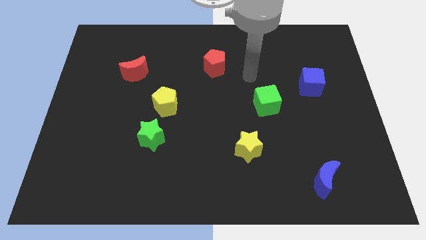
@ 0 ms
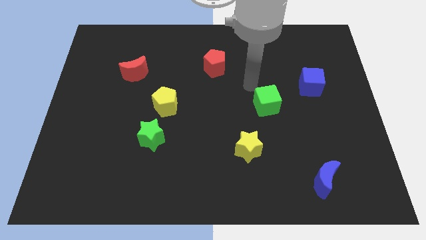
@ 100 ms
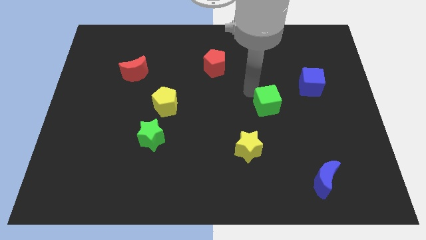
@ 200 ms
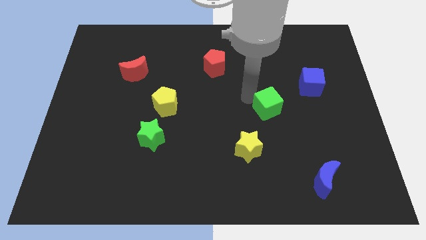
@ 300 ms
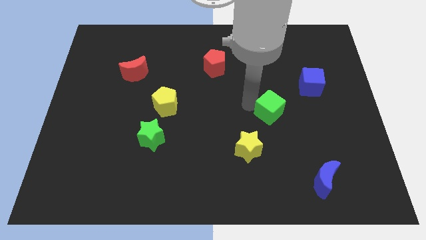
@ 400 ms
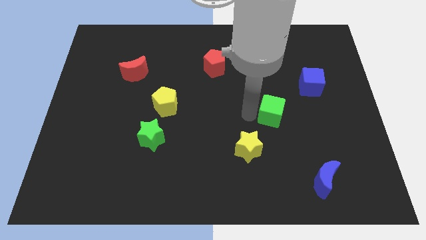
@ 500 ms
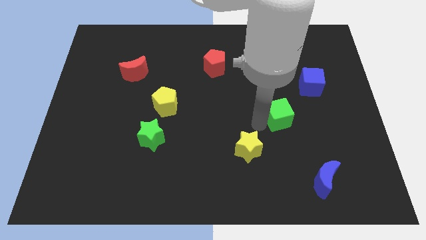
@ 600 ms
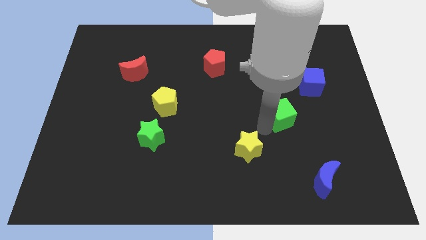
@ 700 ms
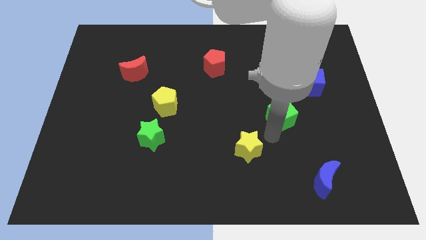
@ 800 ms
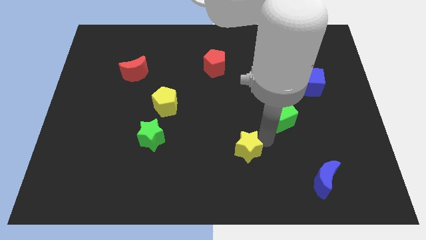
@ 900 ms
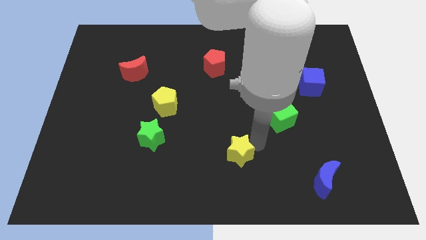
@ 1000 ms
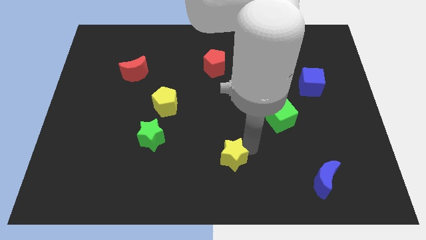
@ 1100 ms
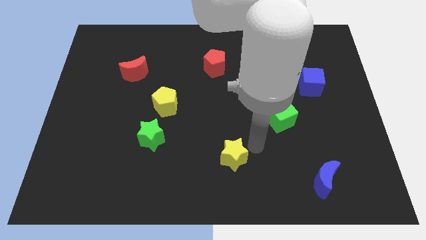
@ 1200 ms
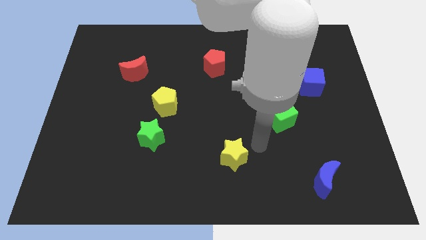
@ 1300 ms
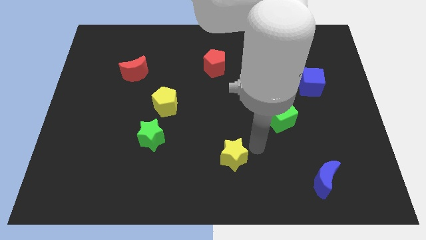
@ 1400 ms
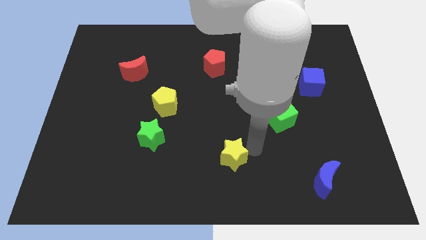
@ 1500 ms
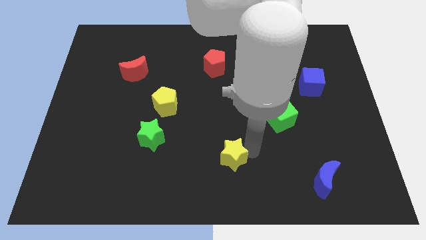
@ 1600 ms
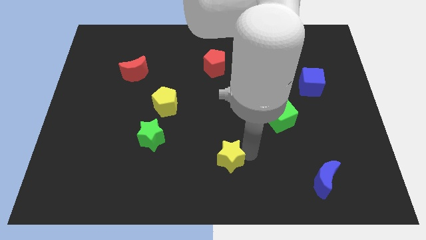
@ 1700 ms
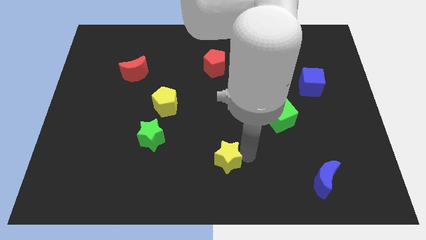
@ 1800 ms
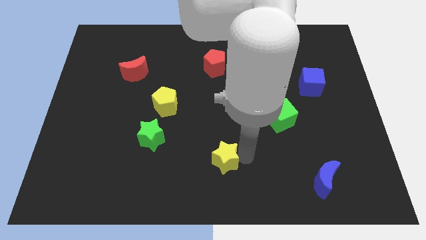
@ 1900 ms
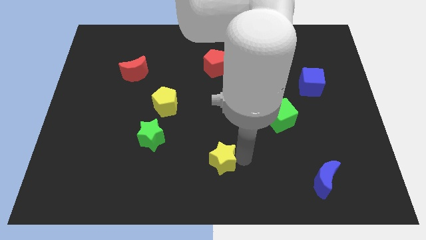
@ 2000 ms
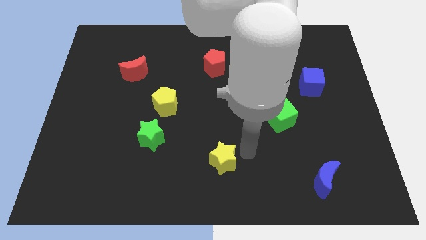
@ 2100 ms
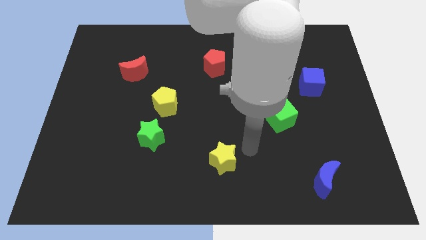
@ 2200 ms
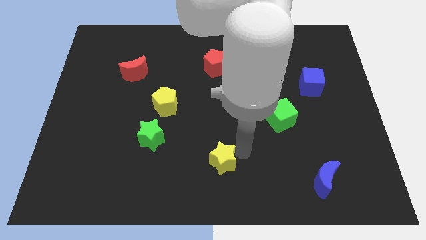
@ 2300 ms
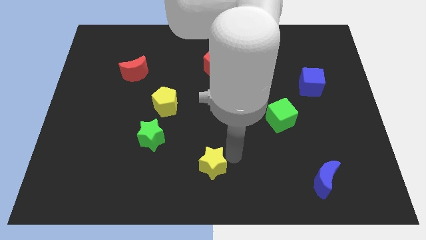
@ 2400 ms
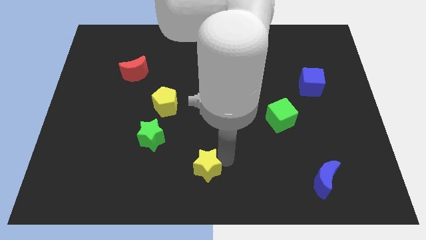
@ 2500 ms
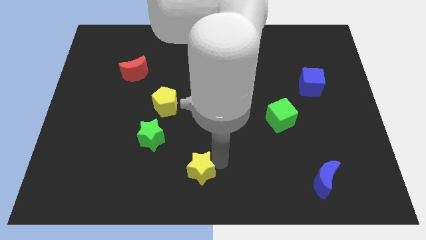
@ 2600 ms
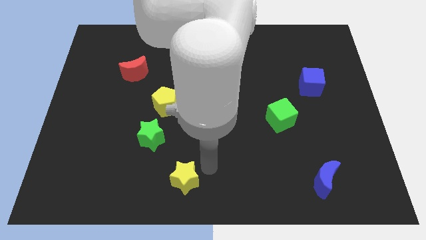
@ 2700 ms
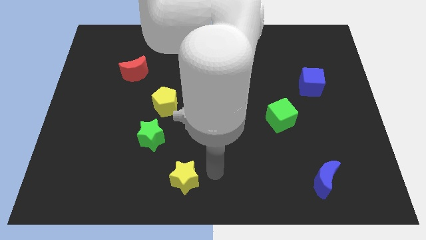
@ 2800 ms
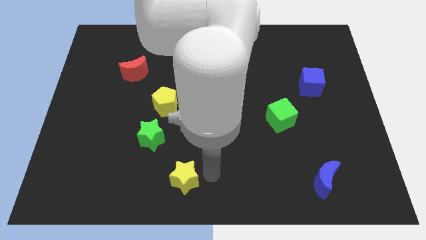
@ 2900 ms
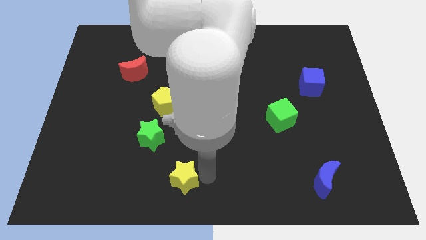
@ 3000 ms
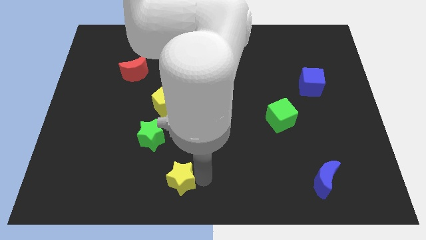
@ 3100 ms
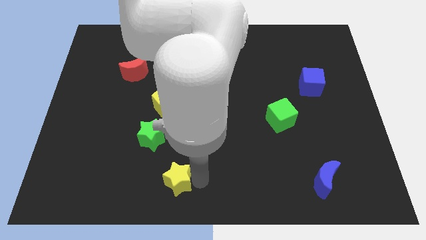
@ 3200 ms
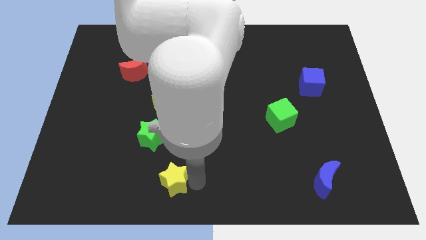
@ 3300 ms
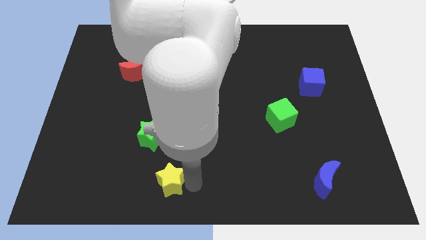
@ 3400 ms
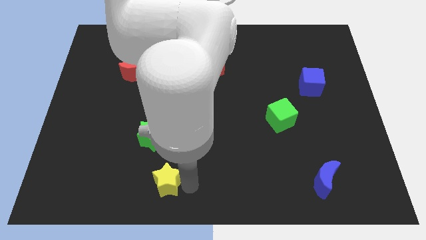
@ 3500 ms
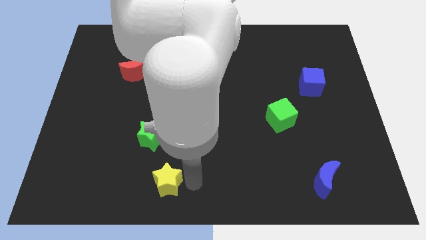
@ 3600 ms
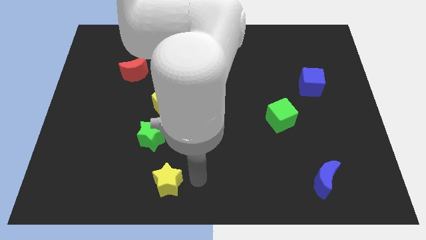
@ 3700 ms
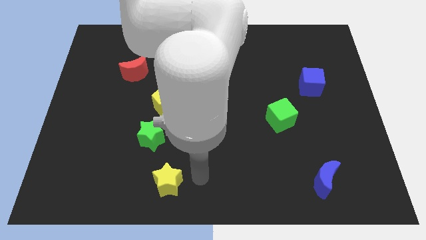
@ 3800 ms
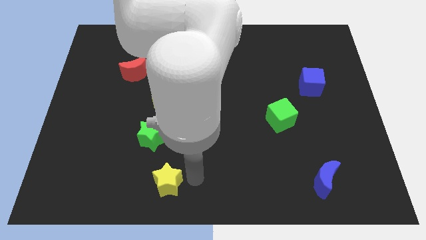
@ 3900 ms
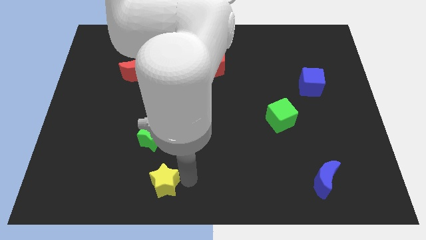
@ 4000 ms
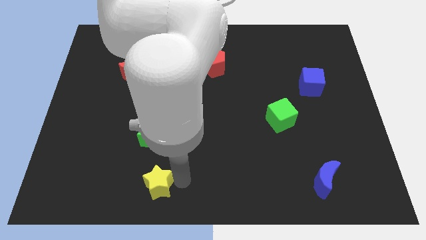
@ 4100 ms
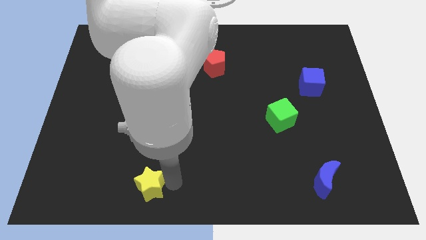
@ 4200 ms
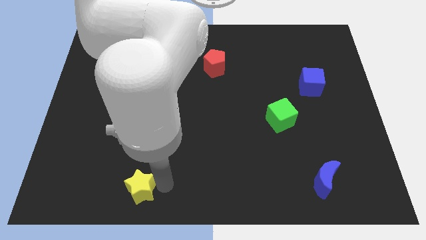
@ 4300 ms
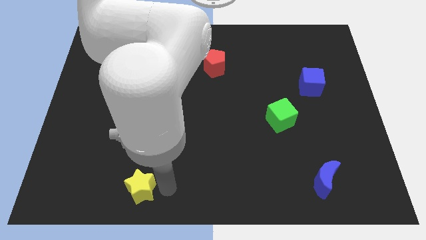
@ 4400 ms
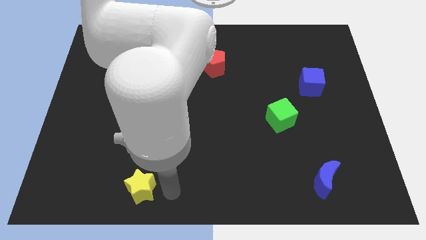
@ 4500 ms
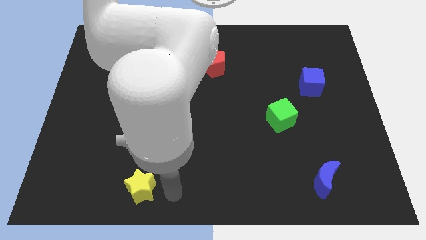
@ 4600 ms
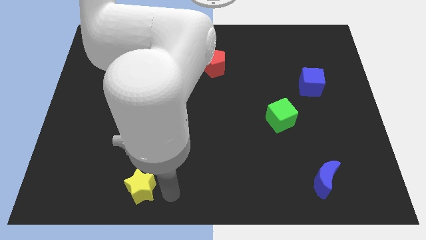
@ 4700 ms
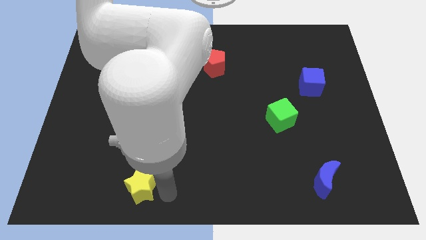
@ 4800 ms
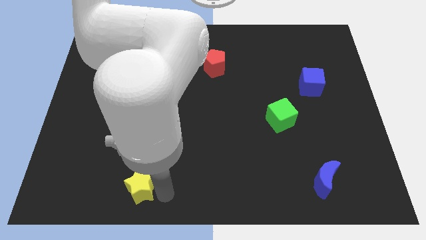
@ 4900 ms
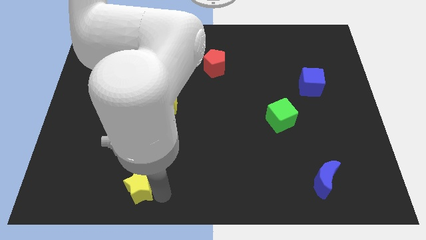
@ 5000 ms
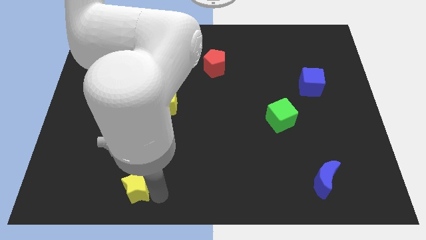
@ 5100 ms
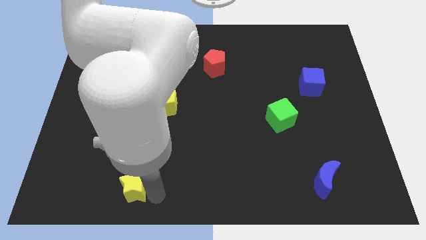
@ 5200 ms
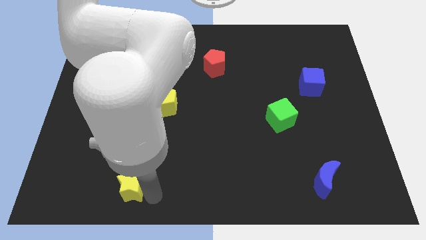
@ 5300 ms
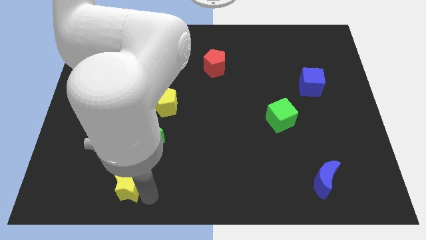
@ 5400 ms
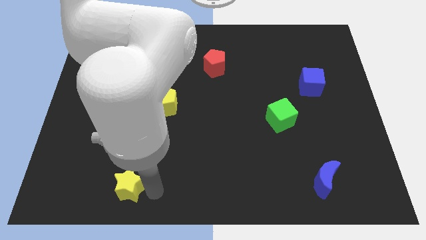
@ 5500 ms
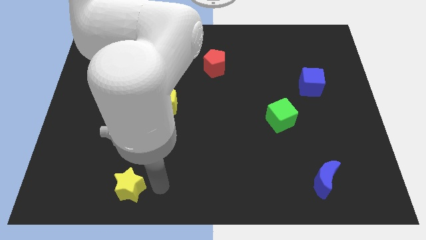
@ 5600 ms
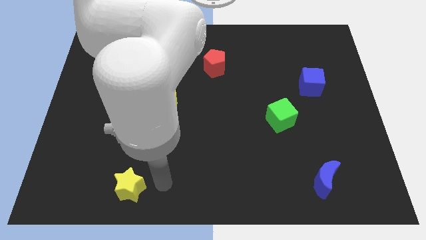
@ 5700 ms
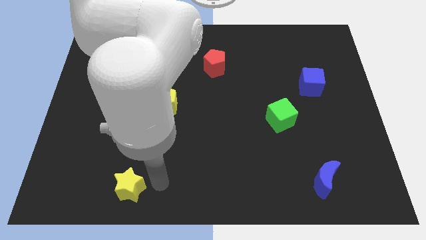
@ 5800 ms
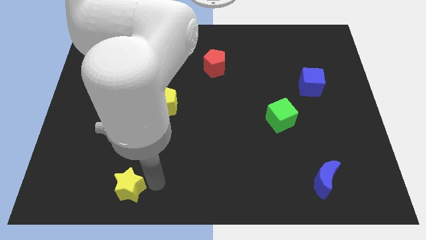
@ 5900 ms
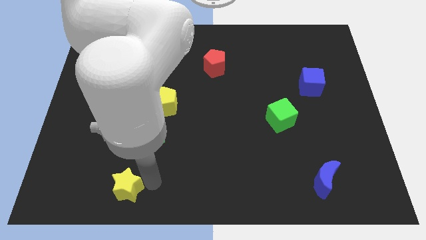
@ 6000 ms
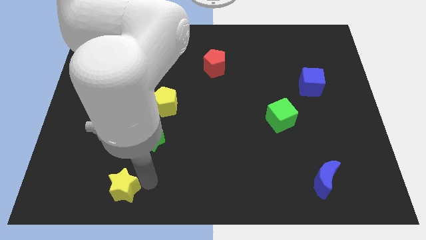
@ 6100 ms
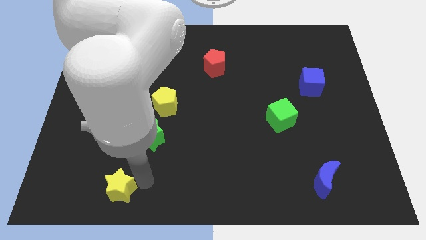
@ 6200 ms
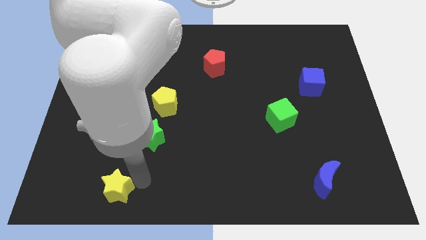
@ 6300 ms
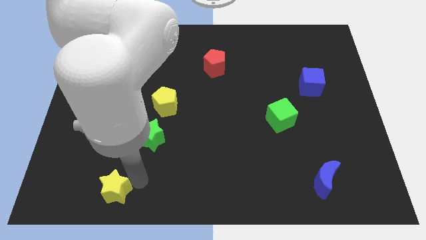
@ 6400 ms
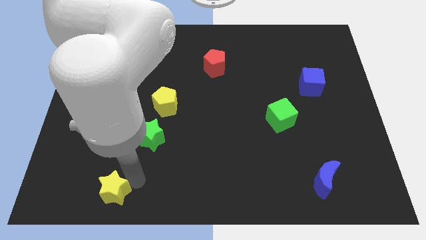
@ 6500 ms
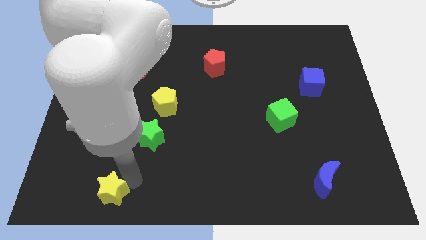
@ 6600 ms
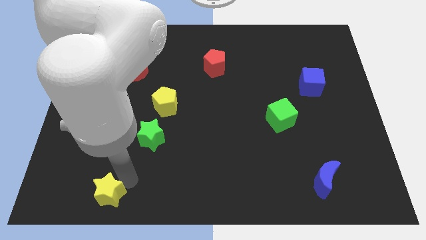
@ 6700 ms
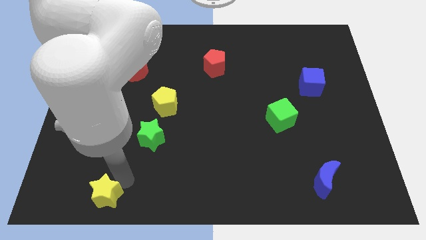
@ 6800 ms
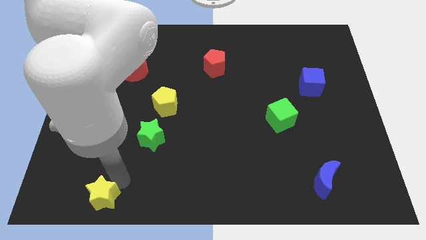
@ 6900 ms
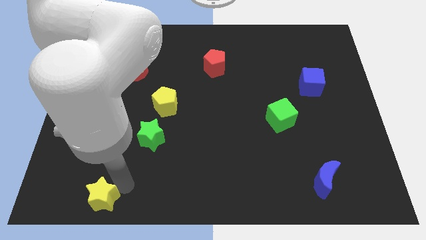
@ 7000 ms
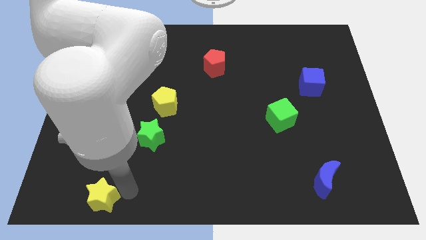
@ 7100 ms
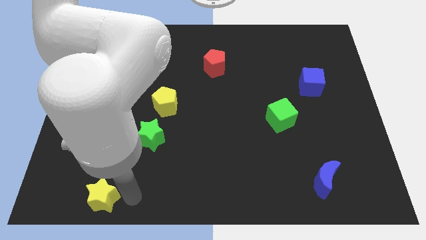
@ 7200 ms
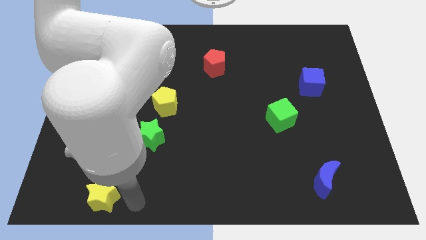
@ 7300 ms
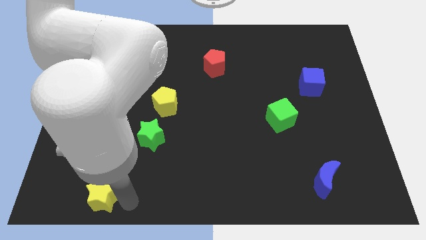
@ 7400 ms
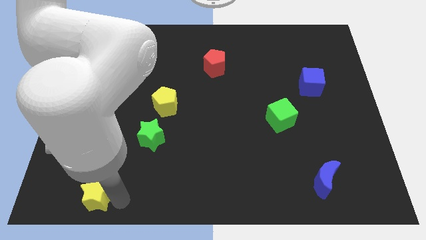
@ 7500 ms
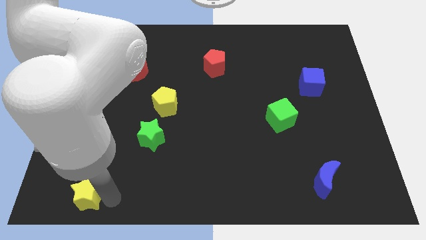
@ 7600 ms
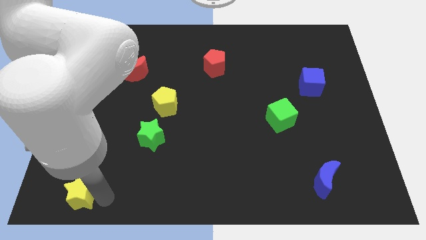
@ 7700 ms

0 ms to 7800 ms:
push the yellow star to the bottom left corner
